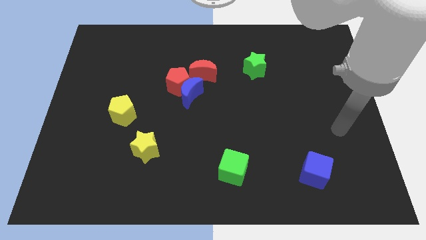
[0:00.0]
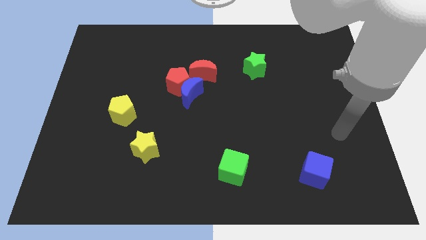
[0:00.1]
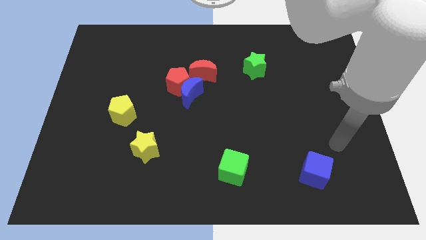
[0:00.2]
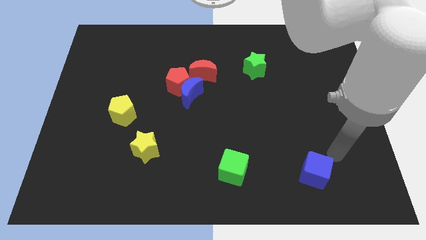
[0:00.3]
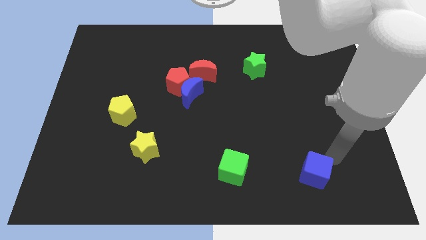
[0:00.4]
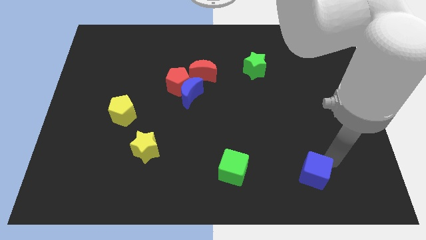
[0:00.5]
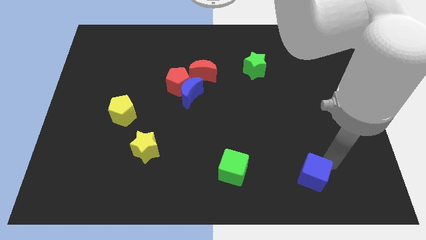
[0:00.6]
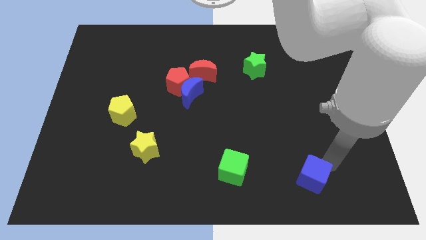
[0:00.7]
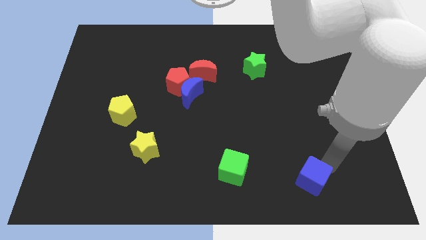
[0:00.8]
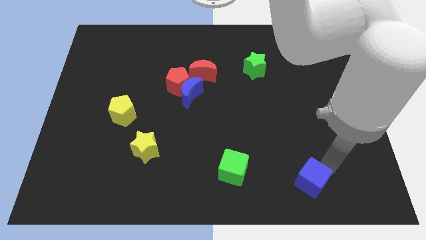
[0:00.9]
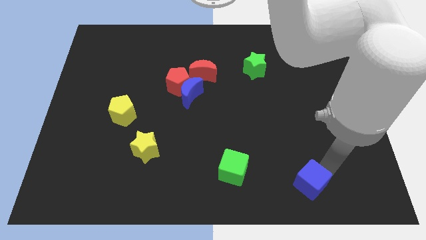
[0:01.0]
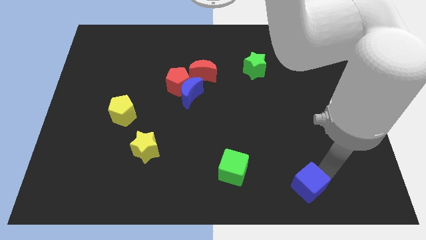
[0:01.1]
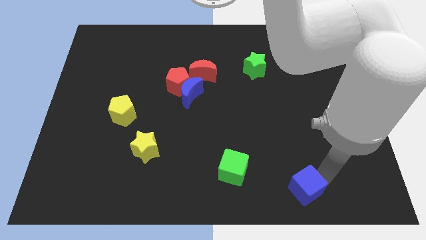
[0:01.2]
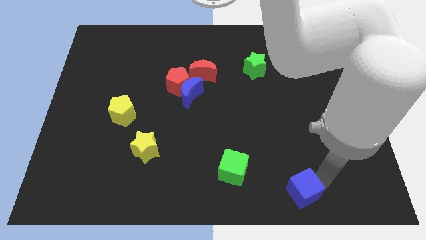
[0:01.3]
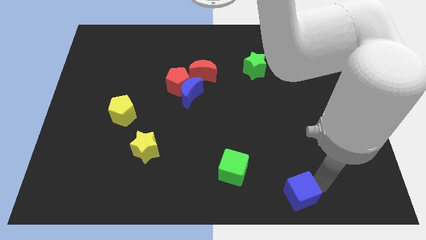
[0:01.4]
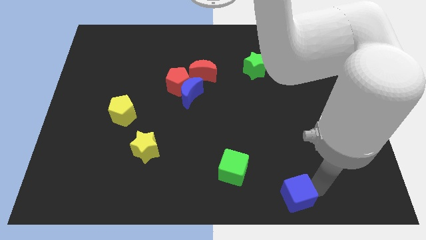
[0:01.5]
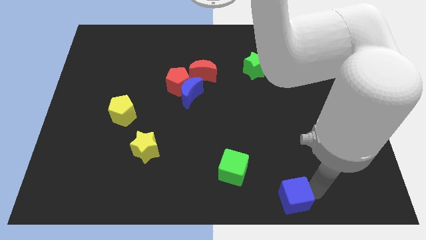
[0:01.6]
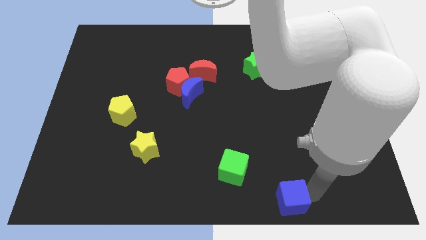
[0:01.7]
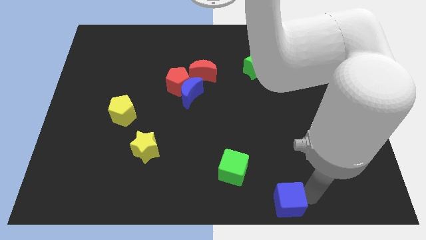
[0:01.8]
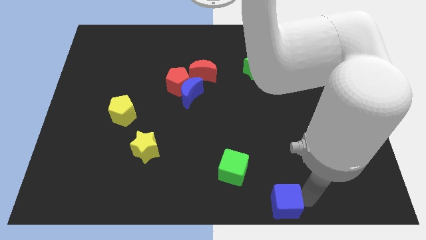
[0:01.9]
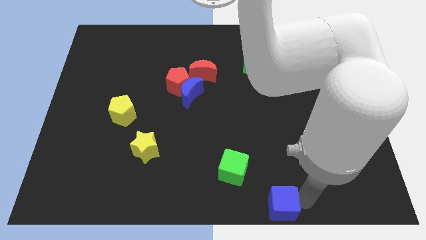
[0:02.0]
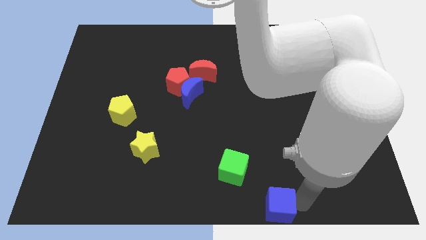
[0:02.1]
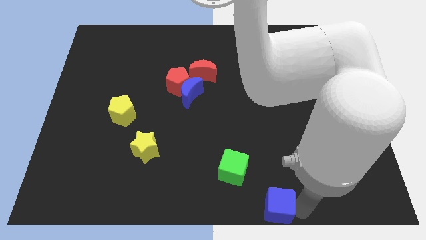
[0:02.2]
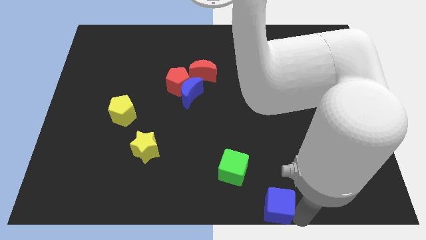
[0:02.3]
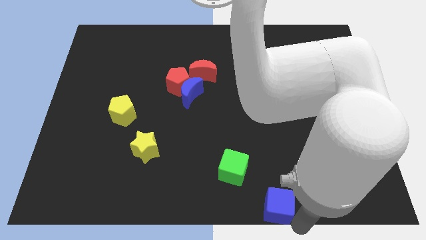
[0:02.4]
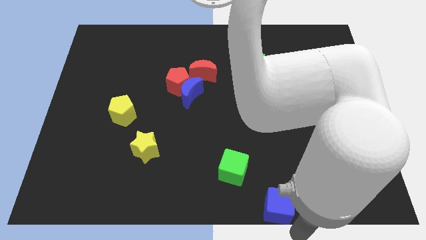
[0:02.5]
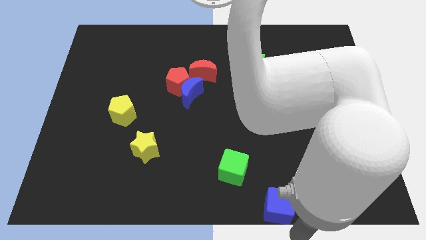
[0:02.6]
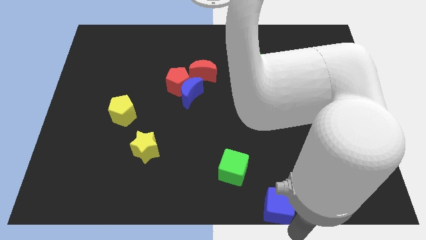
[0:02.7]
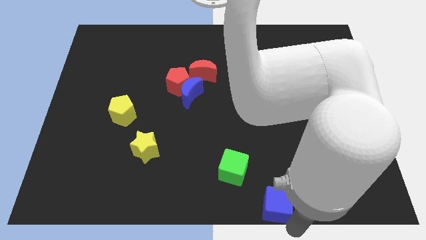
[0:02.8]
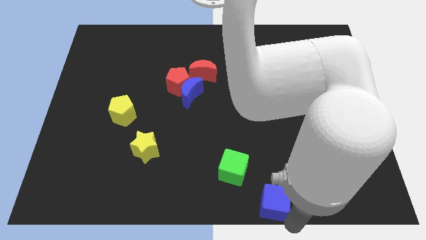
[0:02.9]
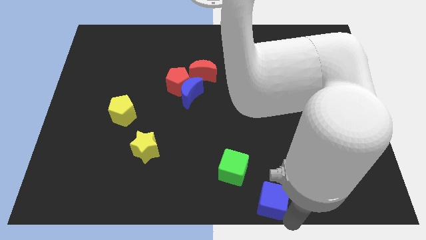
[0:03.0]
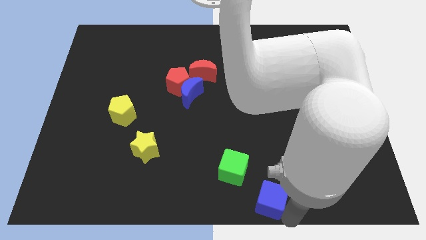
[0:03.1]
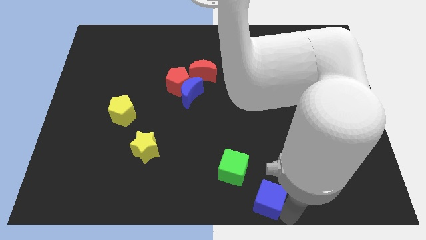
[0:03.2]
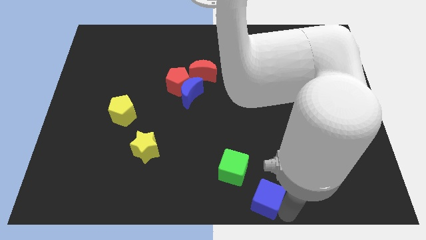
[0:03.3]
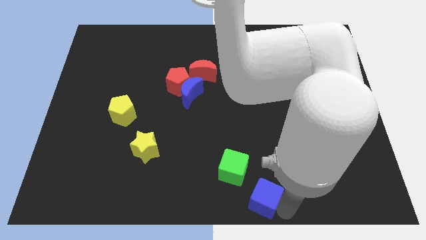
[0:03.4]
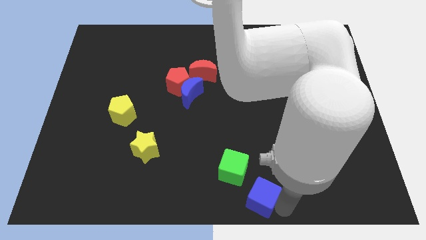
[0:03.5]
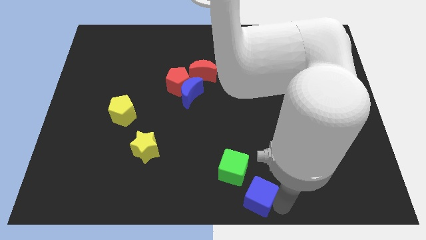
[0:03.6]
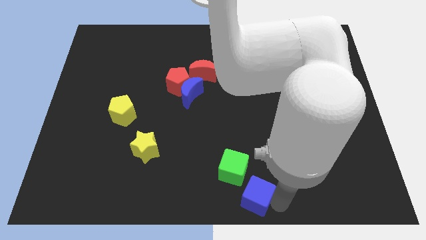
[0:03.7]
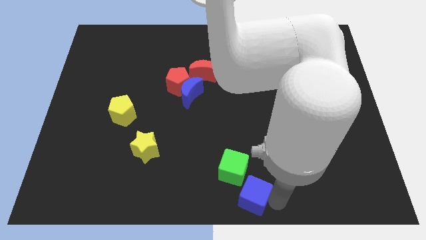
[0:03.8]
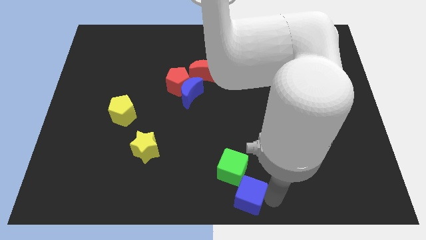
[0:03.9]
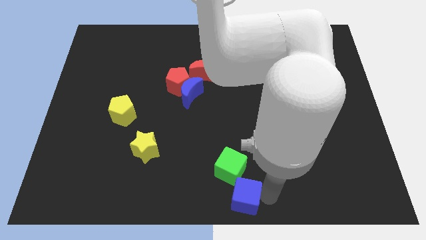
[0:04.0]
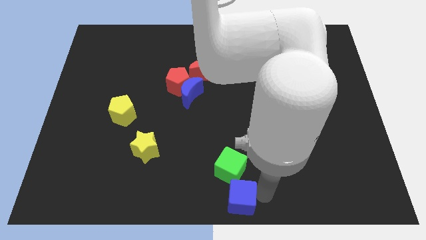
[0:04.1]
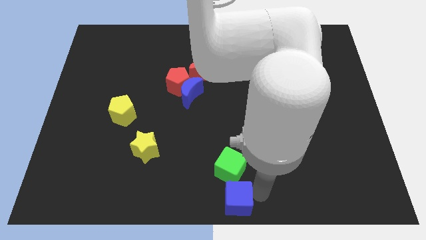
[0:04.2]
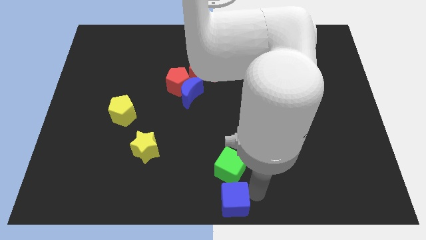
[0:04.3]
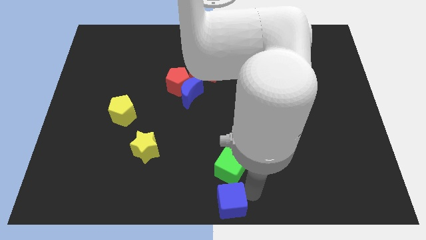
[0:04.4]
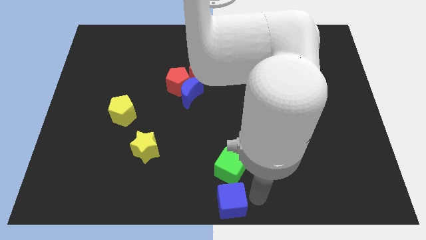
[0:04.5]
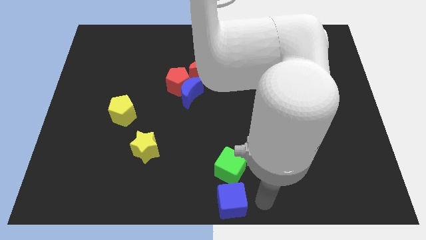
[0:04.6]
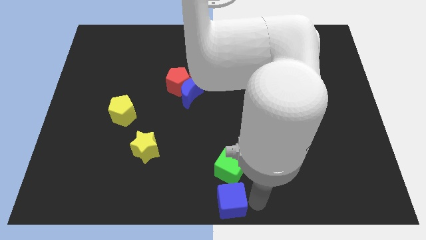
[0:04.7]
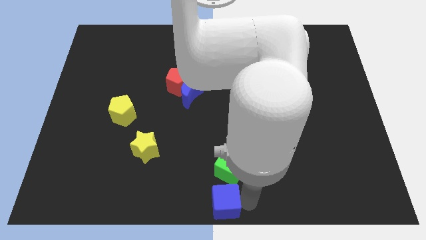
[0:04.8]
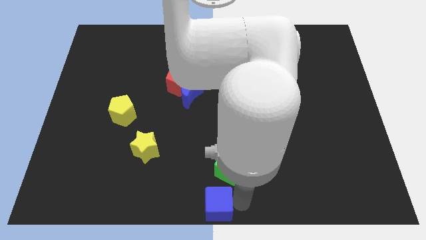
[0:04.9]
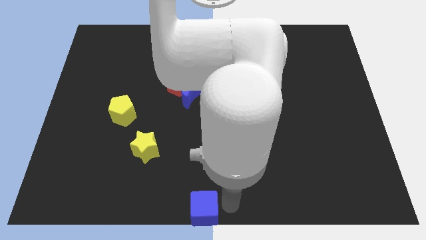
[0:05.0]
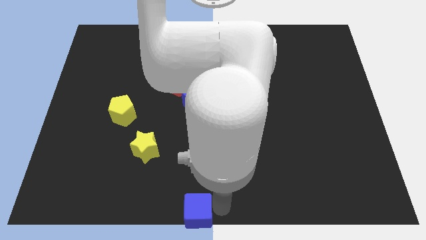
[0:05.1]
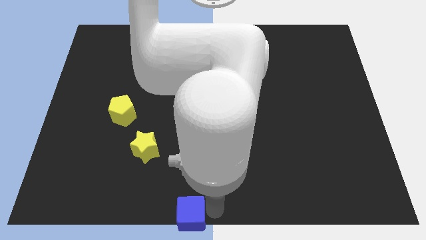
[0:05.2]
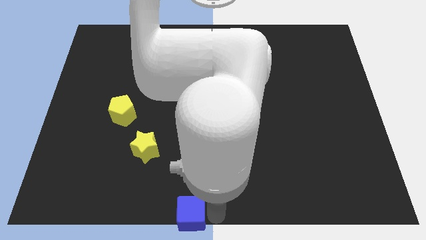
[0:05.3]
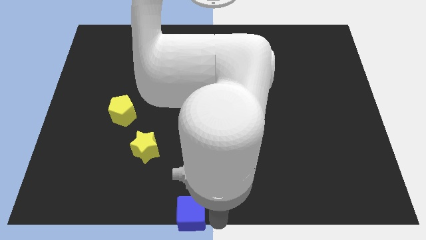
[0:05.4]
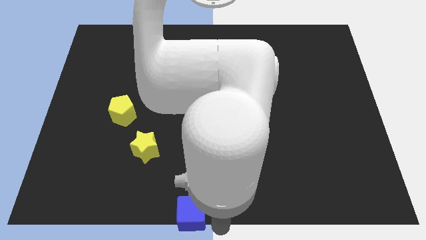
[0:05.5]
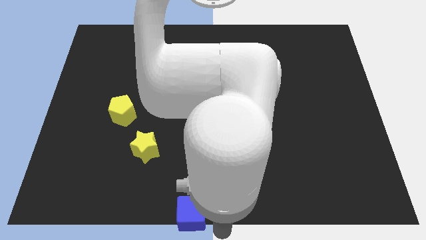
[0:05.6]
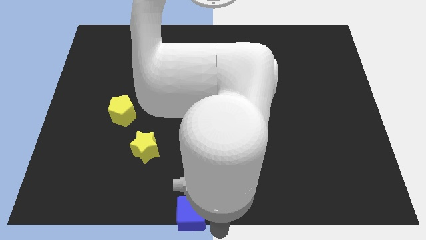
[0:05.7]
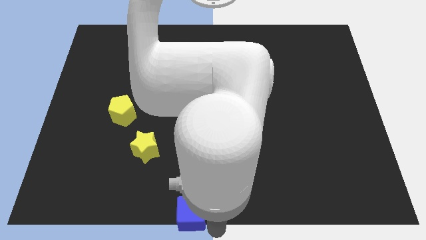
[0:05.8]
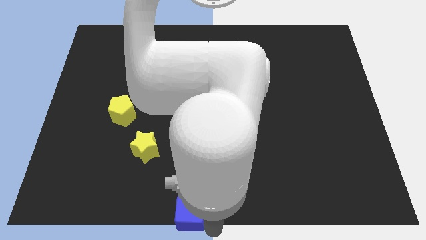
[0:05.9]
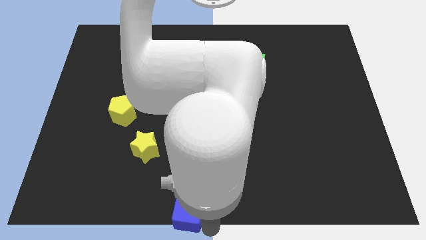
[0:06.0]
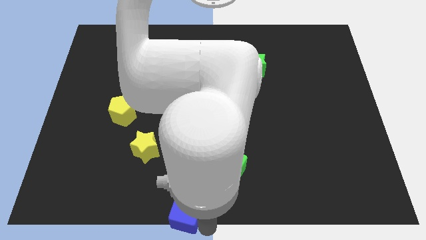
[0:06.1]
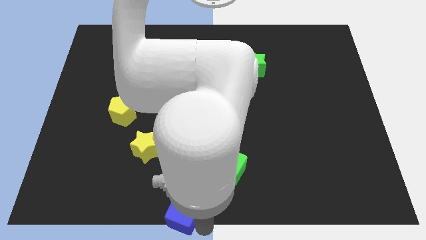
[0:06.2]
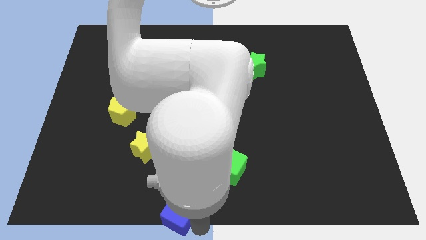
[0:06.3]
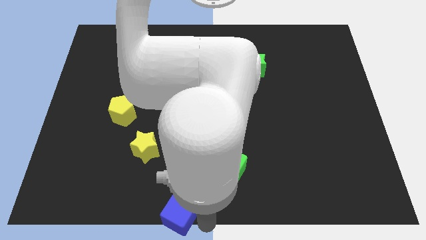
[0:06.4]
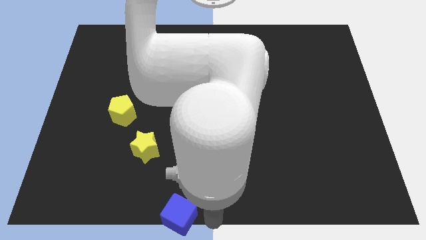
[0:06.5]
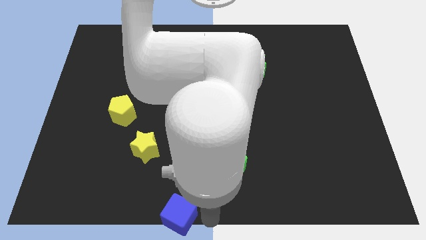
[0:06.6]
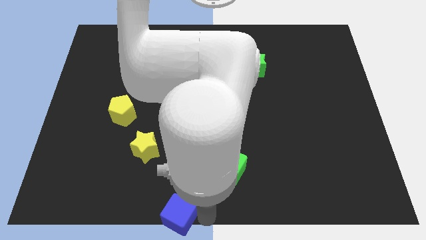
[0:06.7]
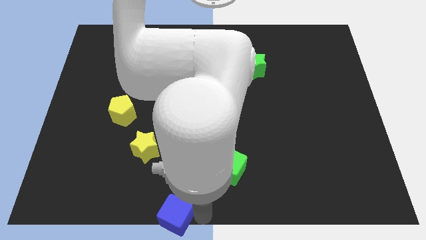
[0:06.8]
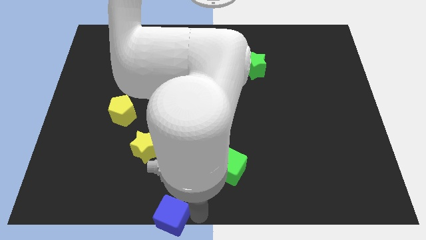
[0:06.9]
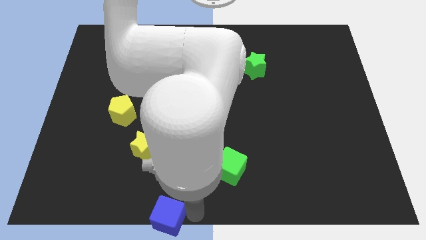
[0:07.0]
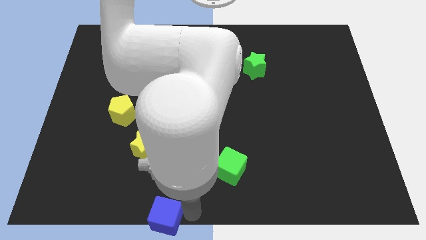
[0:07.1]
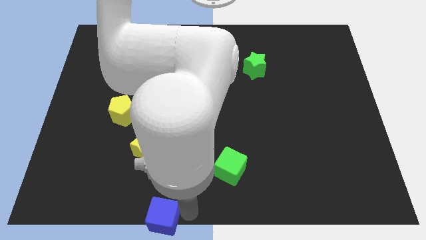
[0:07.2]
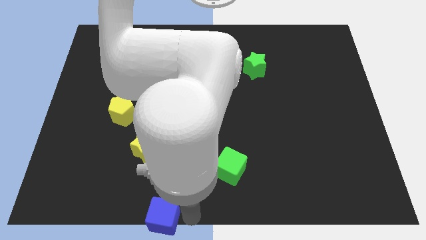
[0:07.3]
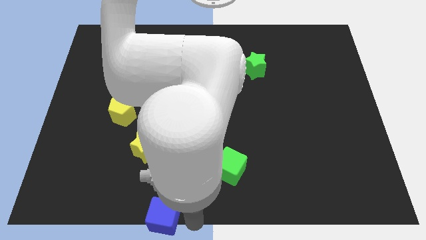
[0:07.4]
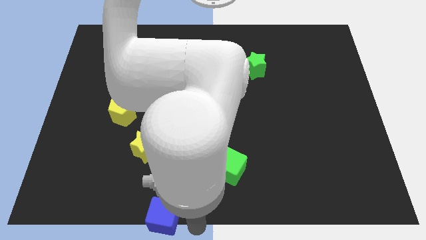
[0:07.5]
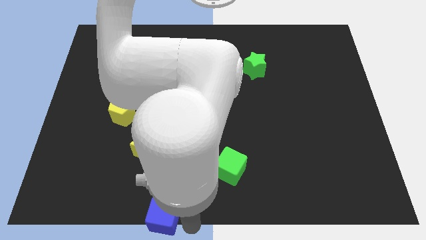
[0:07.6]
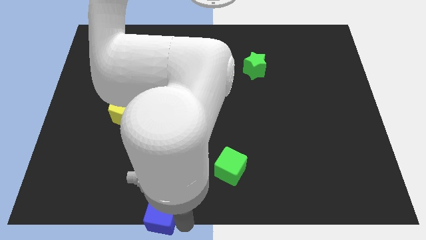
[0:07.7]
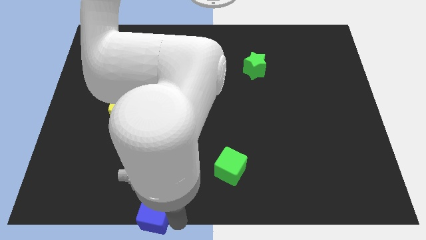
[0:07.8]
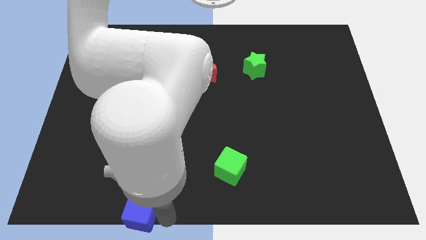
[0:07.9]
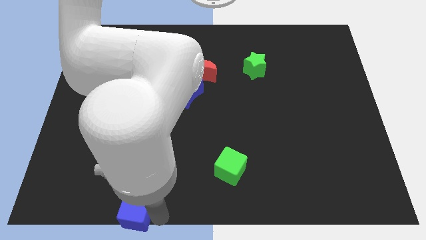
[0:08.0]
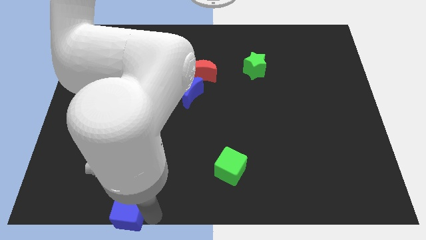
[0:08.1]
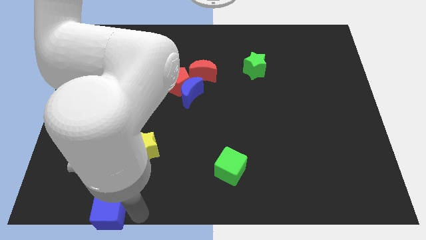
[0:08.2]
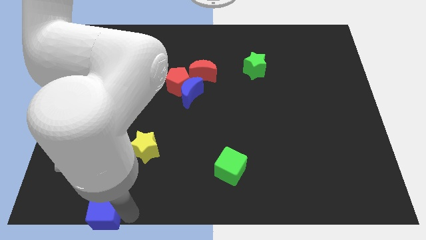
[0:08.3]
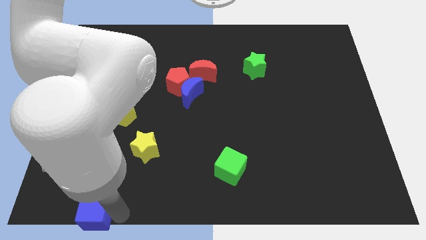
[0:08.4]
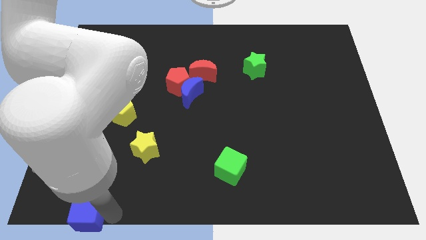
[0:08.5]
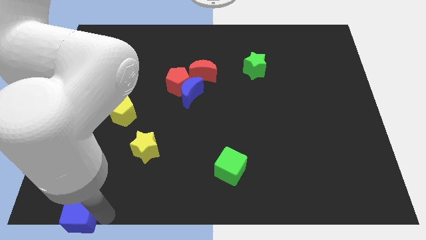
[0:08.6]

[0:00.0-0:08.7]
put the blue cube to the bottom left corner
